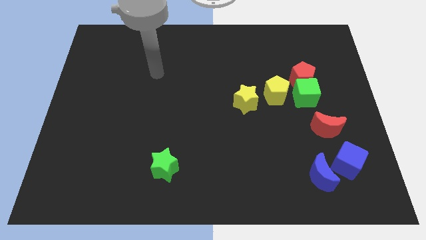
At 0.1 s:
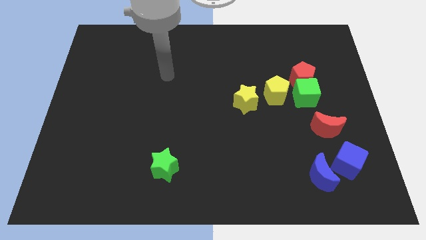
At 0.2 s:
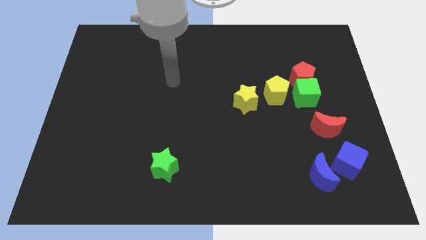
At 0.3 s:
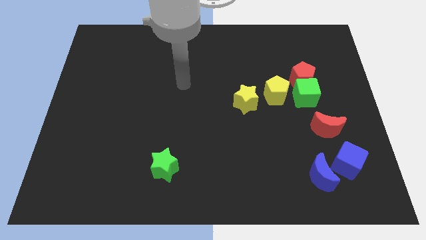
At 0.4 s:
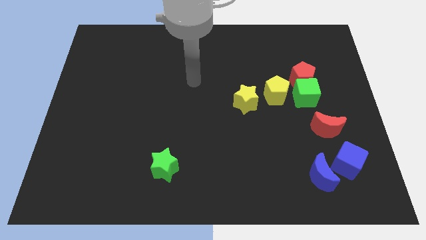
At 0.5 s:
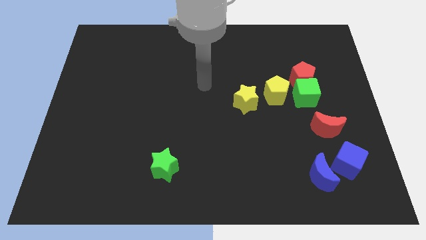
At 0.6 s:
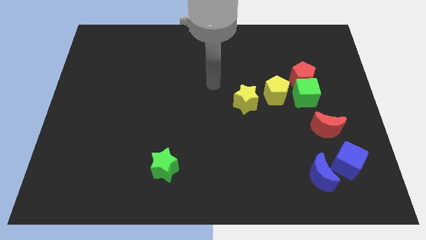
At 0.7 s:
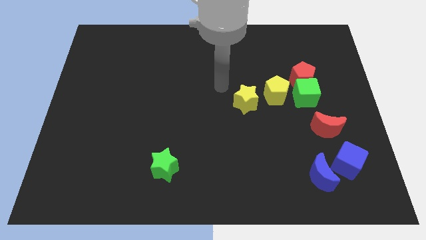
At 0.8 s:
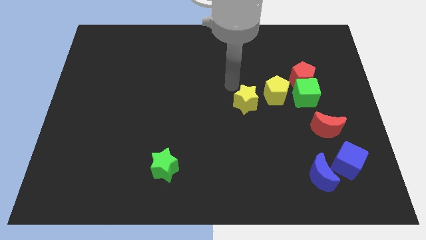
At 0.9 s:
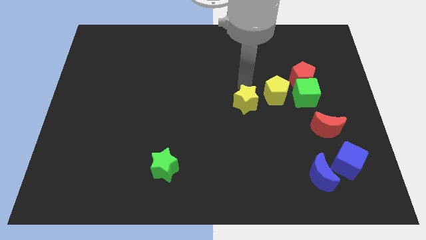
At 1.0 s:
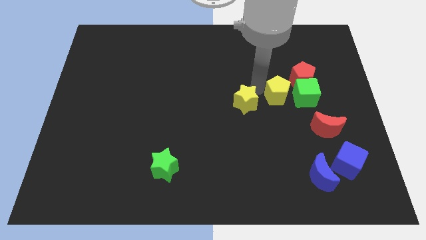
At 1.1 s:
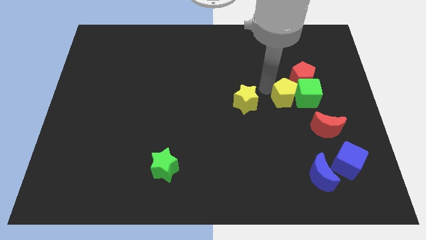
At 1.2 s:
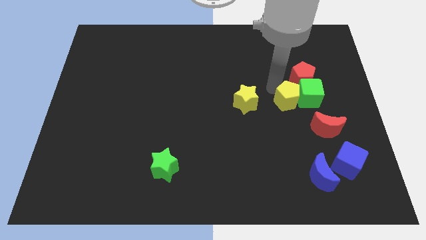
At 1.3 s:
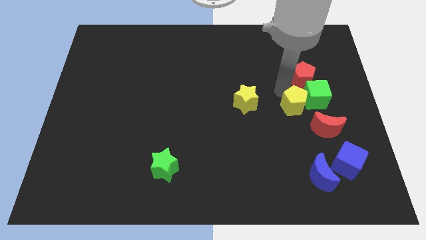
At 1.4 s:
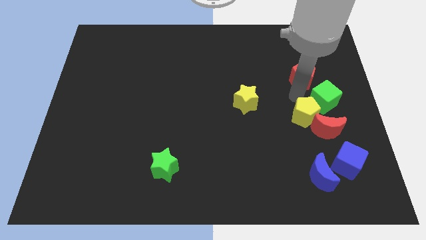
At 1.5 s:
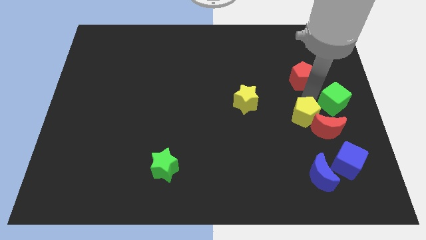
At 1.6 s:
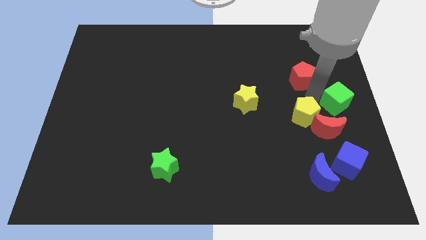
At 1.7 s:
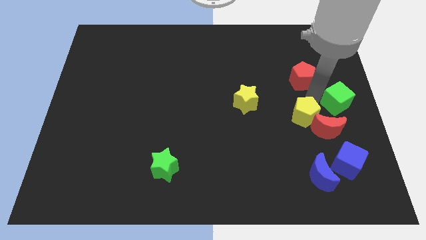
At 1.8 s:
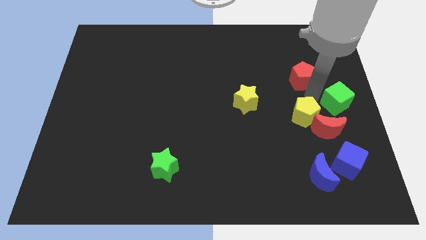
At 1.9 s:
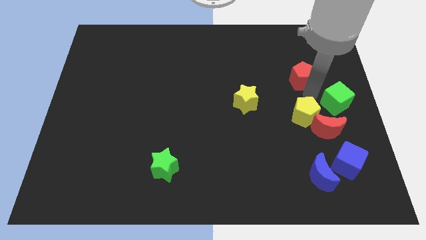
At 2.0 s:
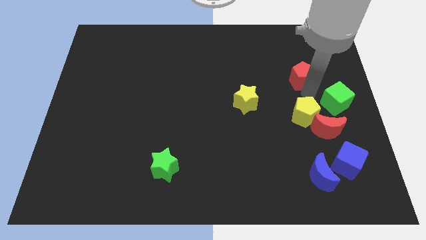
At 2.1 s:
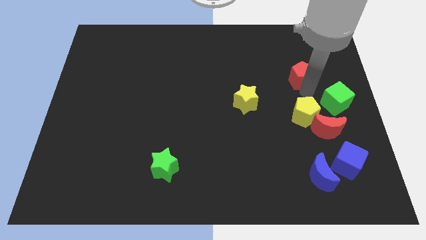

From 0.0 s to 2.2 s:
move the red pentagon away from the green cube and yellow pentagon

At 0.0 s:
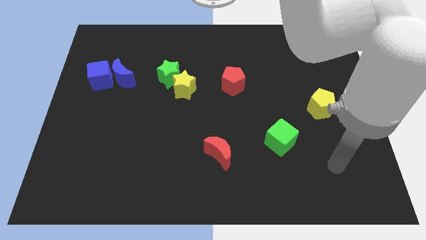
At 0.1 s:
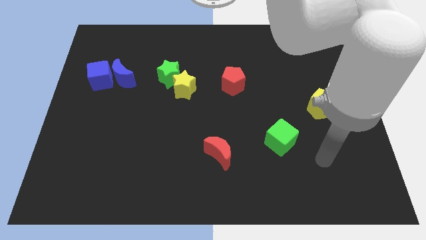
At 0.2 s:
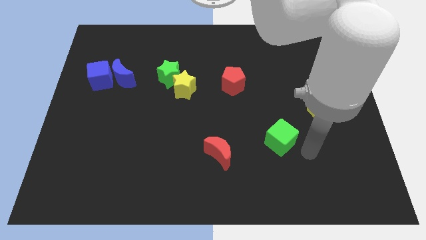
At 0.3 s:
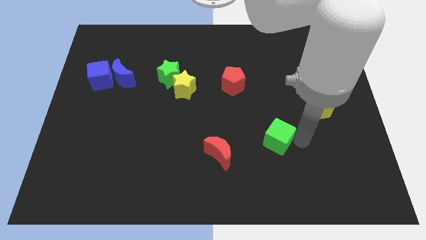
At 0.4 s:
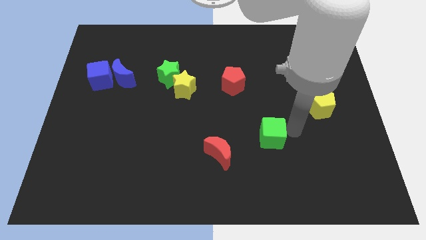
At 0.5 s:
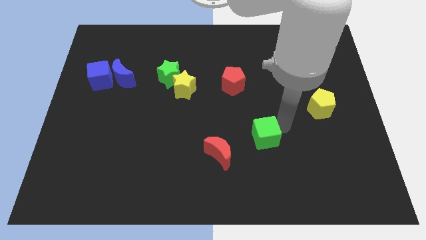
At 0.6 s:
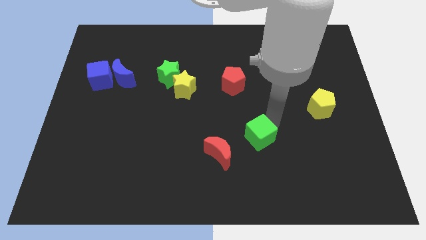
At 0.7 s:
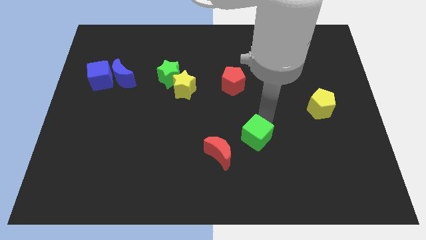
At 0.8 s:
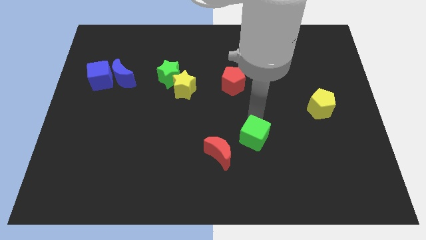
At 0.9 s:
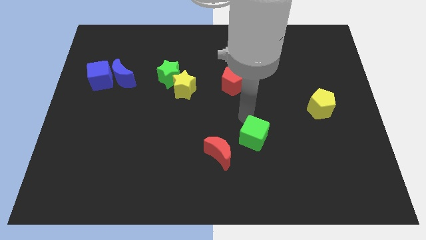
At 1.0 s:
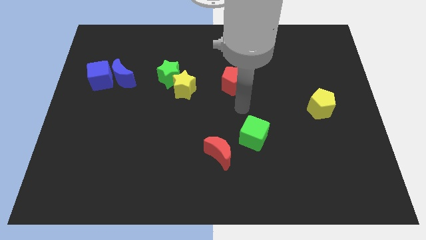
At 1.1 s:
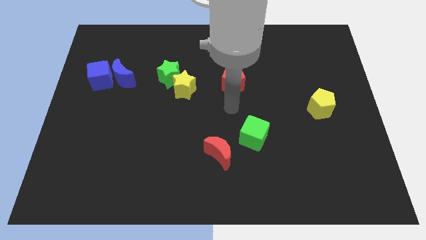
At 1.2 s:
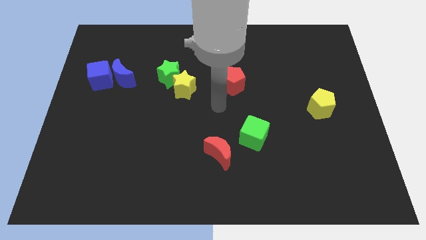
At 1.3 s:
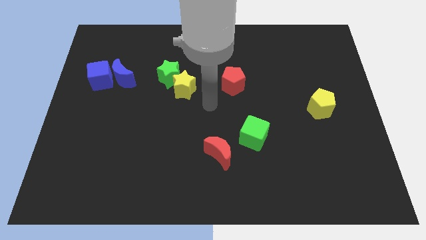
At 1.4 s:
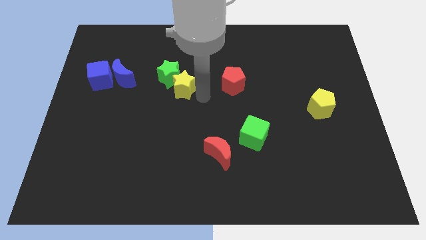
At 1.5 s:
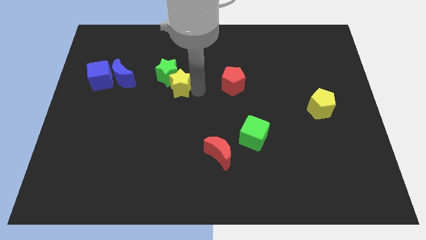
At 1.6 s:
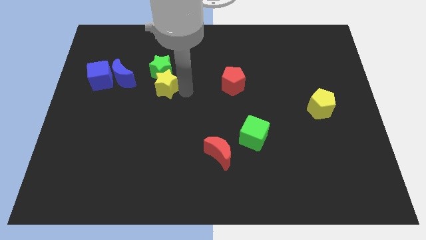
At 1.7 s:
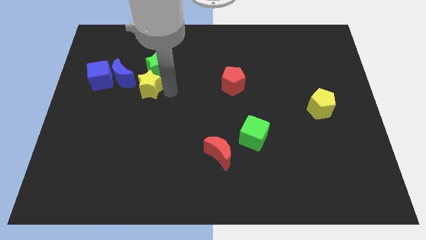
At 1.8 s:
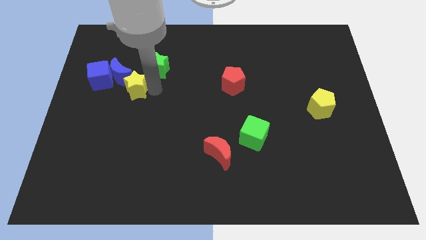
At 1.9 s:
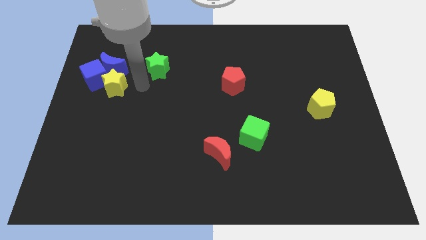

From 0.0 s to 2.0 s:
separate the green star from the yellow star

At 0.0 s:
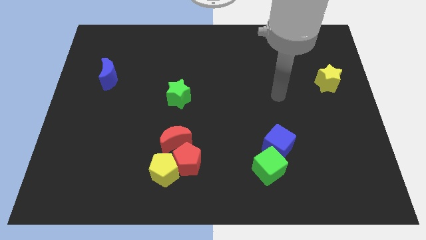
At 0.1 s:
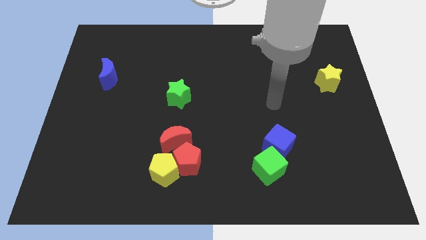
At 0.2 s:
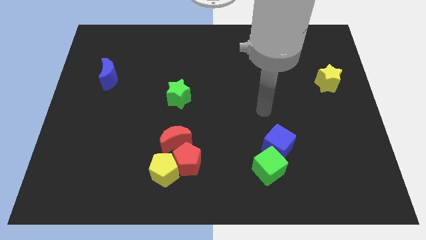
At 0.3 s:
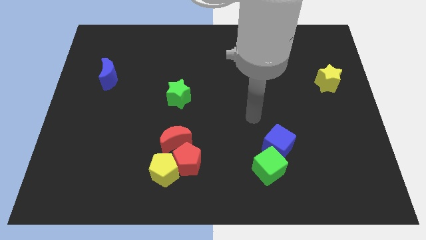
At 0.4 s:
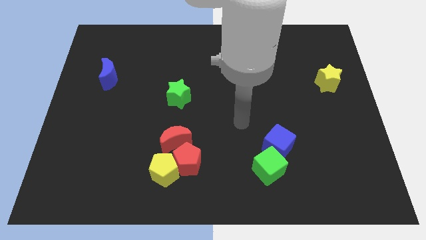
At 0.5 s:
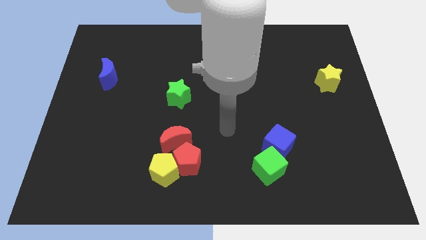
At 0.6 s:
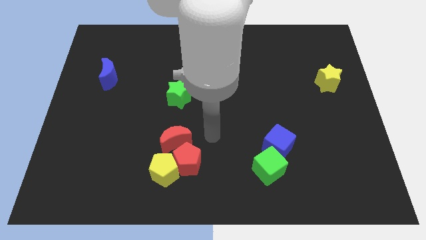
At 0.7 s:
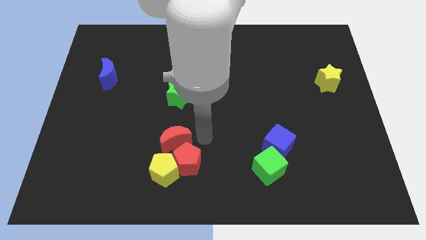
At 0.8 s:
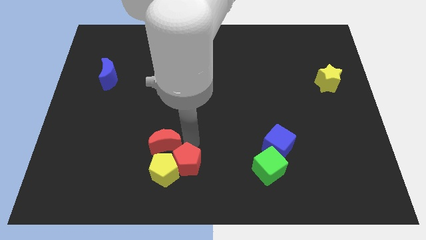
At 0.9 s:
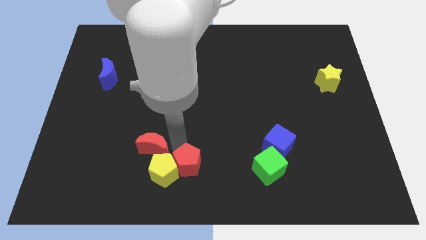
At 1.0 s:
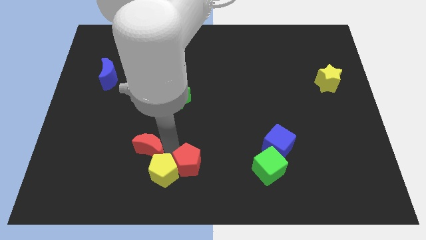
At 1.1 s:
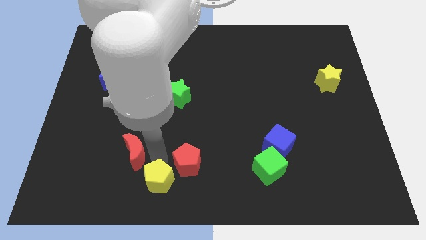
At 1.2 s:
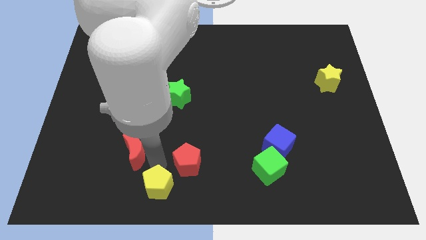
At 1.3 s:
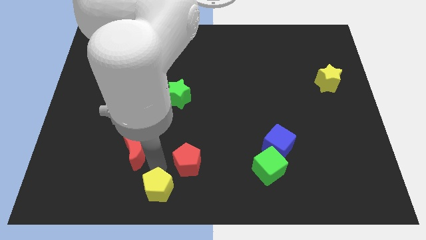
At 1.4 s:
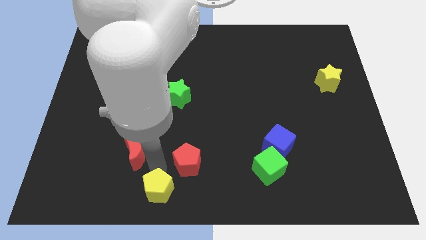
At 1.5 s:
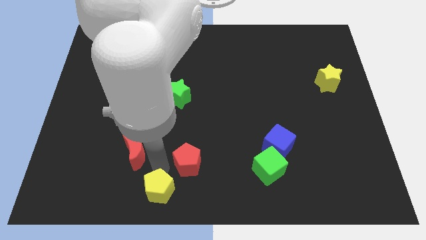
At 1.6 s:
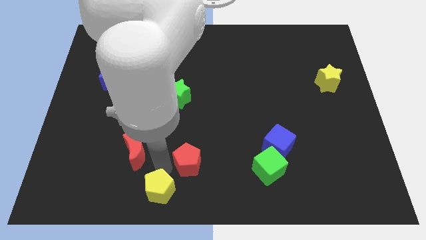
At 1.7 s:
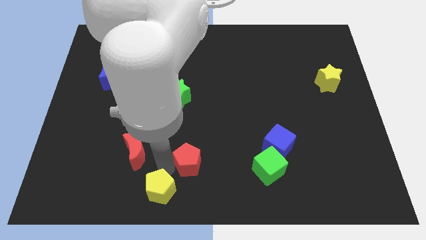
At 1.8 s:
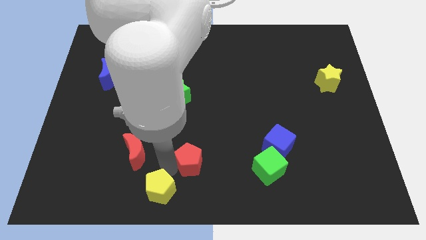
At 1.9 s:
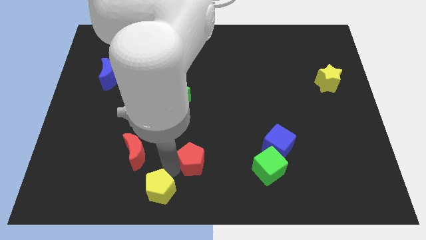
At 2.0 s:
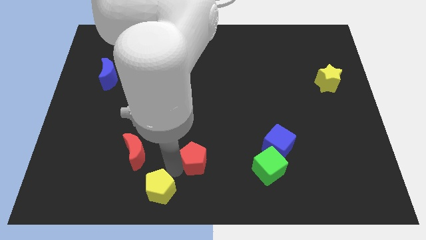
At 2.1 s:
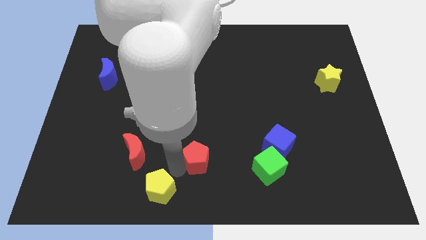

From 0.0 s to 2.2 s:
separate the red pentagon from the yellow pentagon and red moon

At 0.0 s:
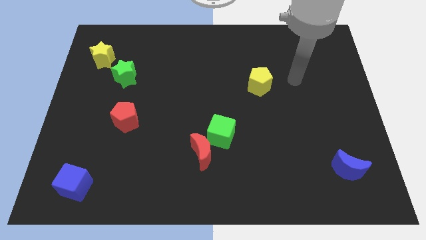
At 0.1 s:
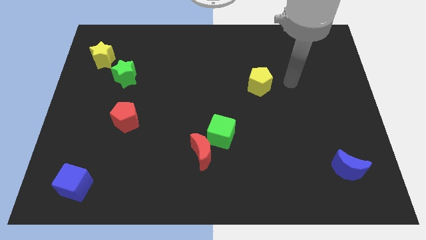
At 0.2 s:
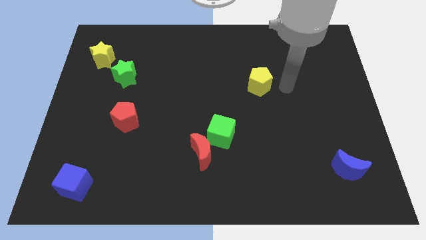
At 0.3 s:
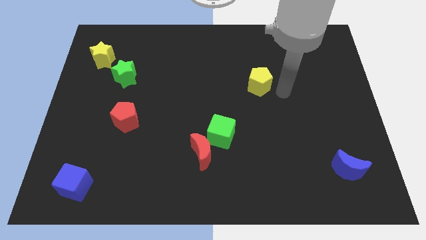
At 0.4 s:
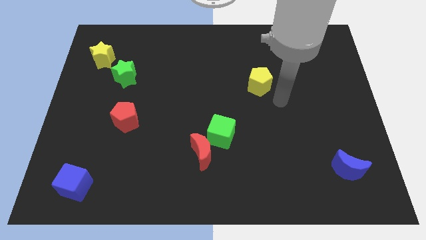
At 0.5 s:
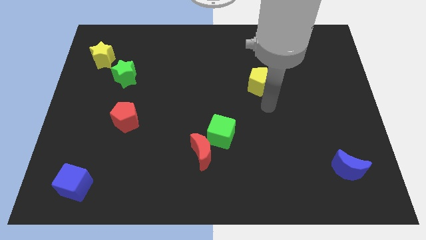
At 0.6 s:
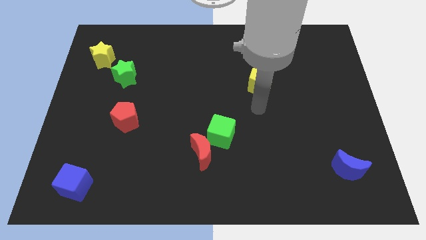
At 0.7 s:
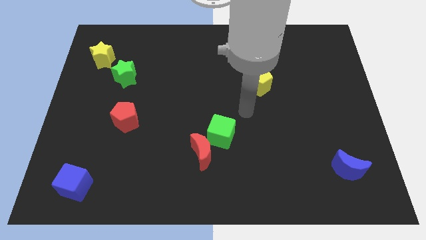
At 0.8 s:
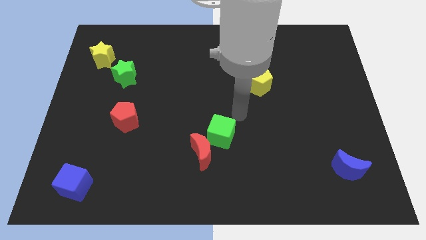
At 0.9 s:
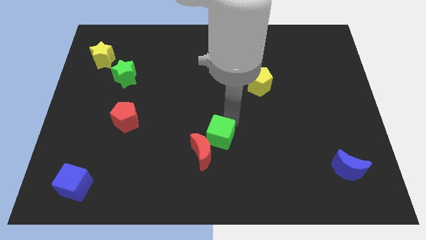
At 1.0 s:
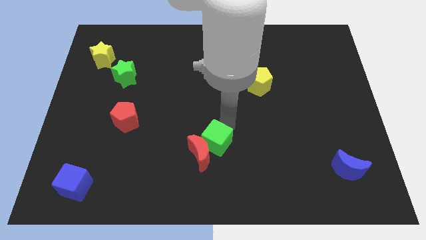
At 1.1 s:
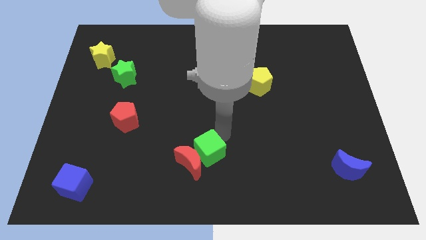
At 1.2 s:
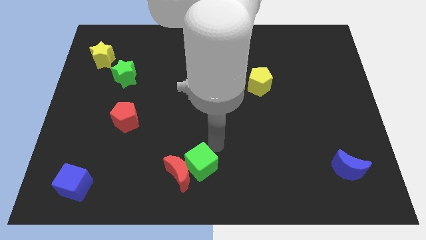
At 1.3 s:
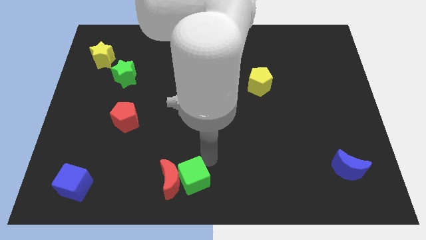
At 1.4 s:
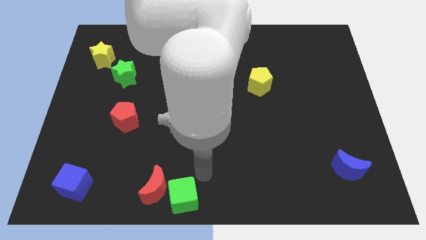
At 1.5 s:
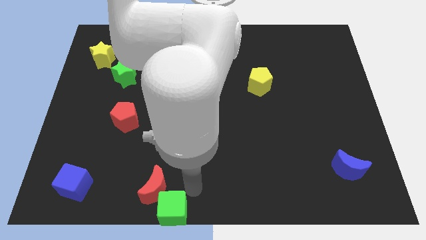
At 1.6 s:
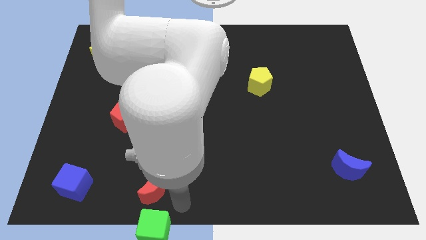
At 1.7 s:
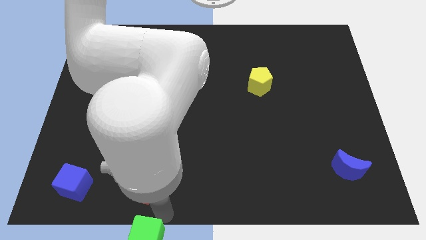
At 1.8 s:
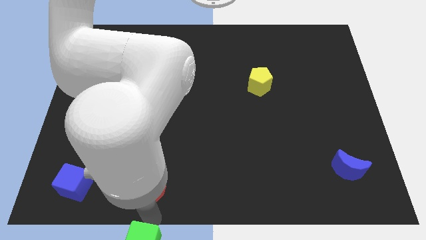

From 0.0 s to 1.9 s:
separate the red moon from the green cube

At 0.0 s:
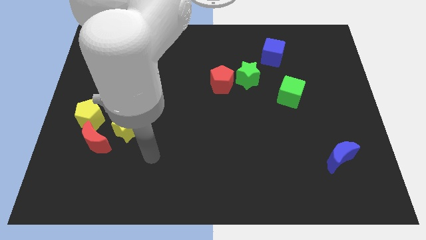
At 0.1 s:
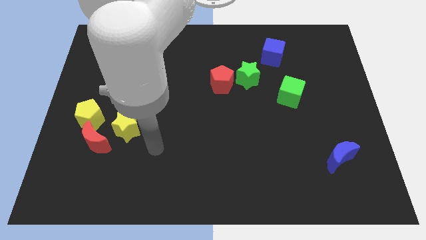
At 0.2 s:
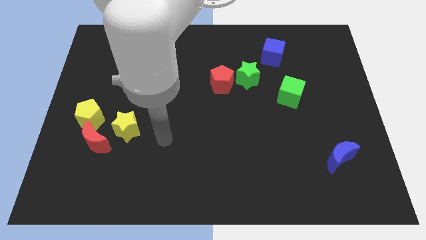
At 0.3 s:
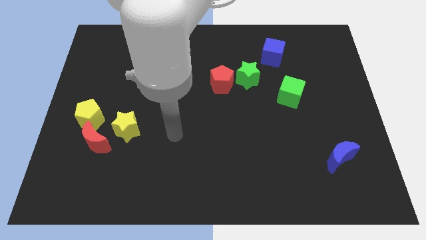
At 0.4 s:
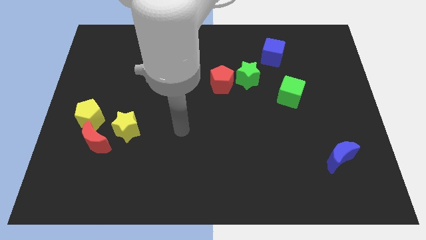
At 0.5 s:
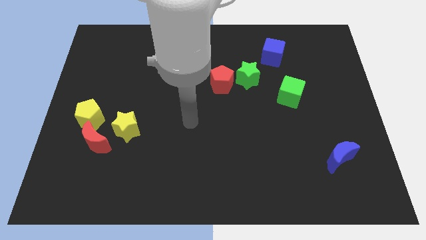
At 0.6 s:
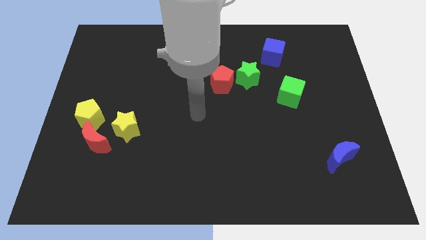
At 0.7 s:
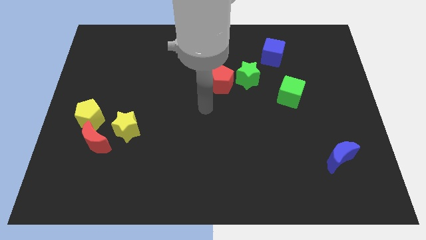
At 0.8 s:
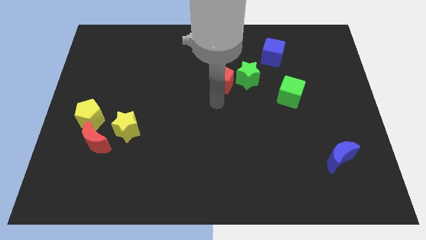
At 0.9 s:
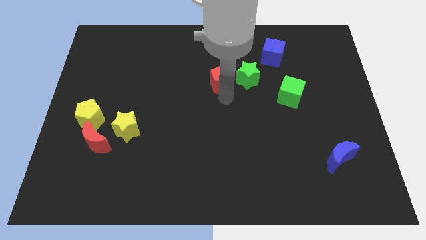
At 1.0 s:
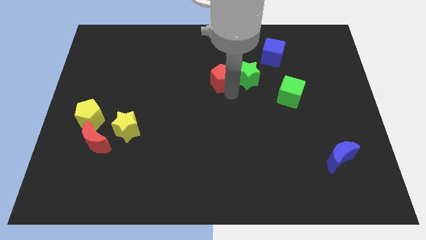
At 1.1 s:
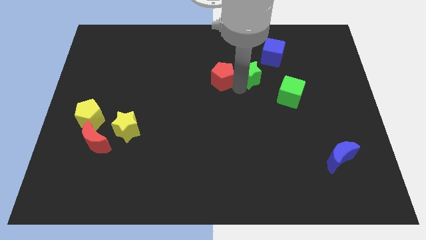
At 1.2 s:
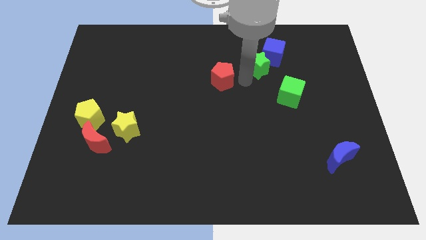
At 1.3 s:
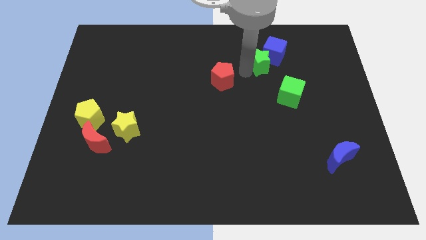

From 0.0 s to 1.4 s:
separate the red pentagon from the green star
